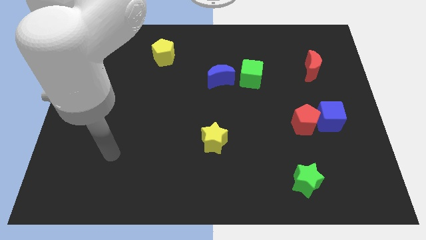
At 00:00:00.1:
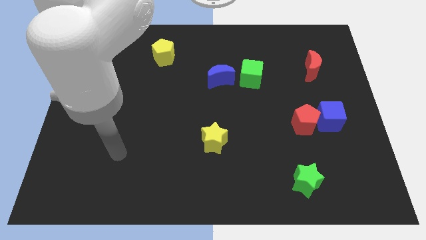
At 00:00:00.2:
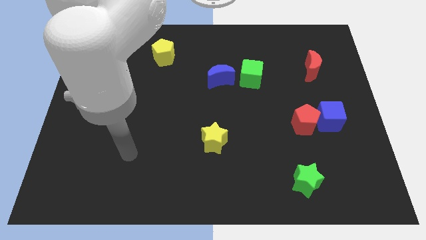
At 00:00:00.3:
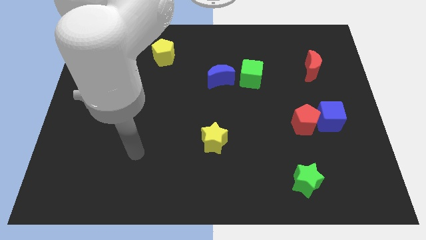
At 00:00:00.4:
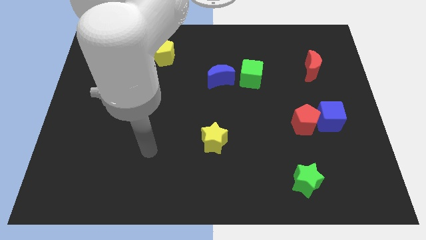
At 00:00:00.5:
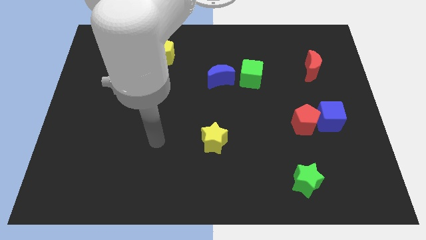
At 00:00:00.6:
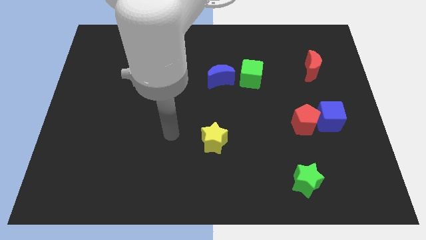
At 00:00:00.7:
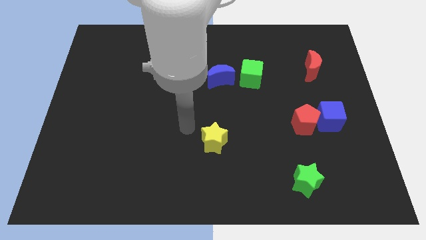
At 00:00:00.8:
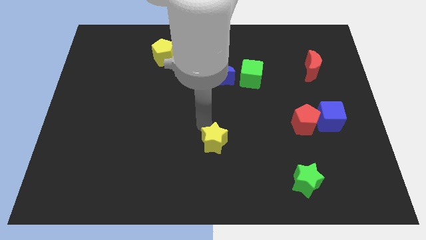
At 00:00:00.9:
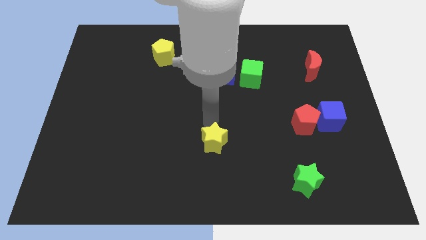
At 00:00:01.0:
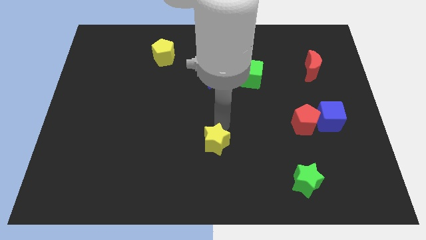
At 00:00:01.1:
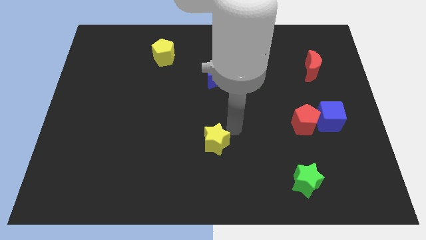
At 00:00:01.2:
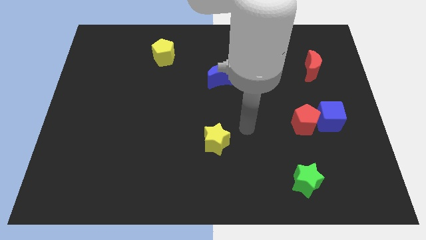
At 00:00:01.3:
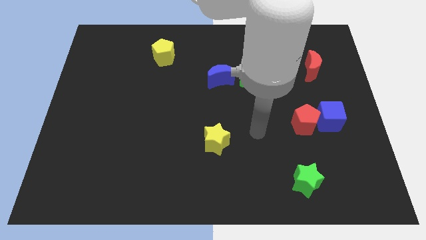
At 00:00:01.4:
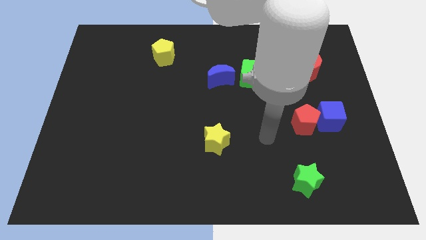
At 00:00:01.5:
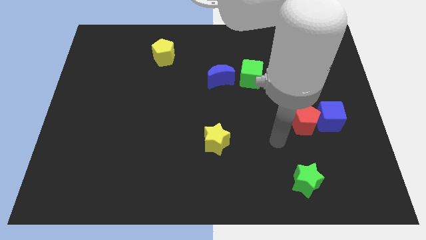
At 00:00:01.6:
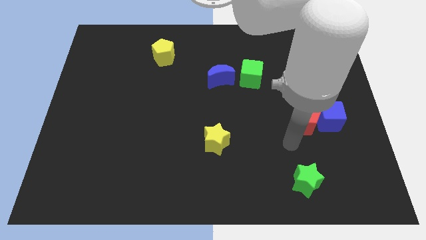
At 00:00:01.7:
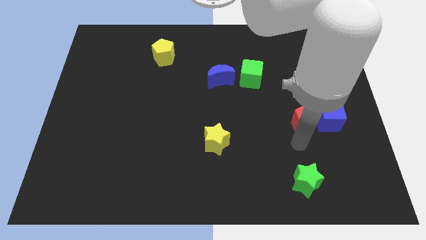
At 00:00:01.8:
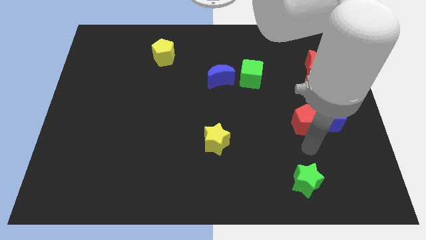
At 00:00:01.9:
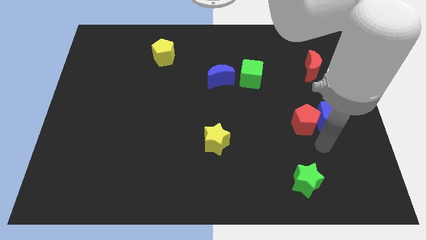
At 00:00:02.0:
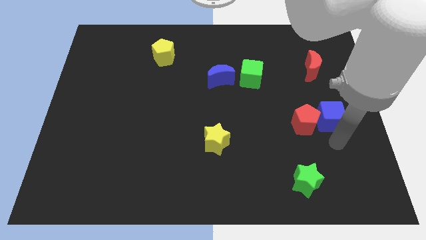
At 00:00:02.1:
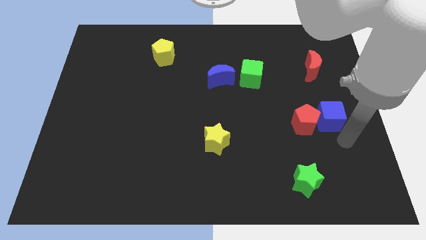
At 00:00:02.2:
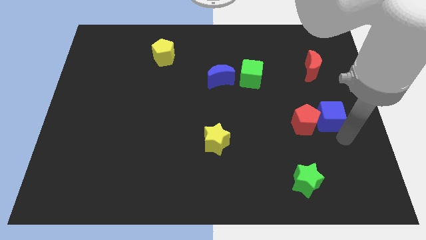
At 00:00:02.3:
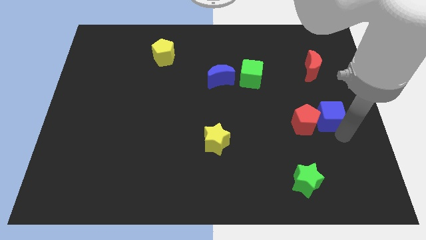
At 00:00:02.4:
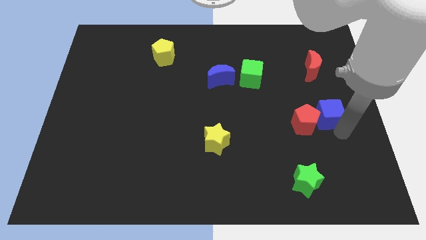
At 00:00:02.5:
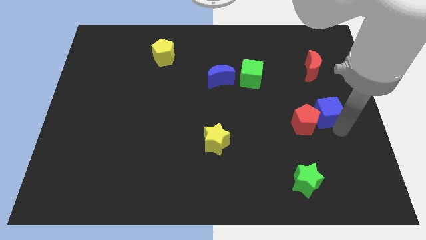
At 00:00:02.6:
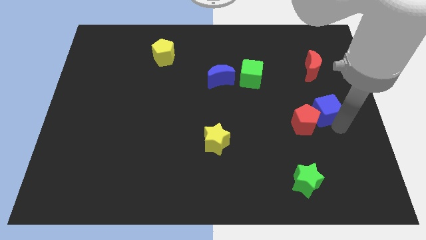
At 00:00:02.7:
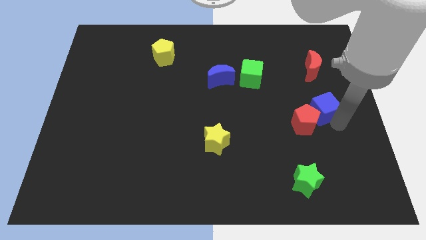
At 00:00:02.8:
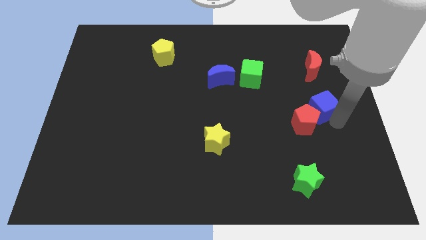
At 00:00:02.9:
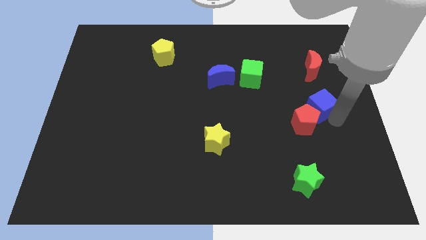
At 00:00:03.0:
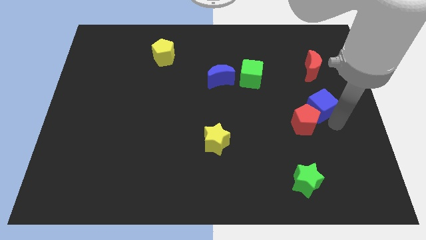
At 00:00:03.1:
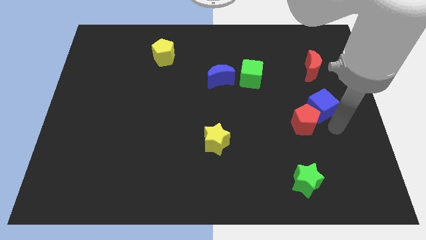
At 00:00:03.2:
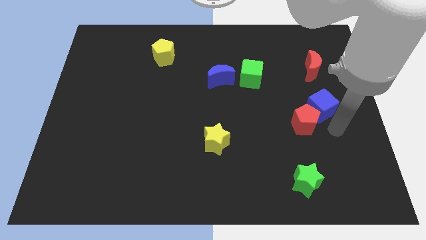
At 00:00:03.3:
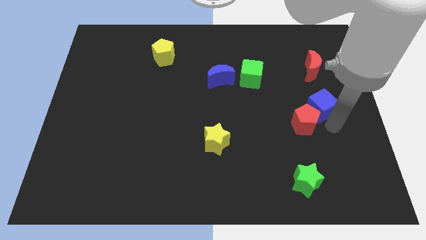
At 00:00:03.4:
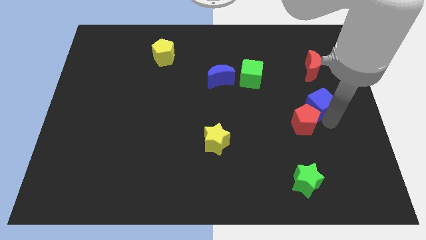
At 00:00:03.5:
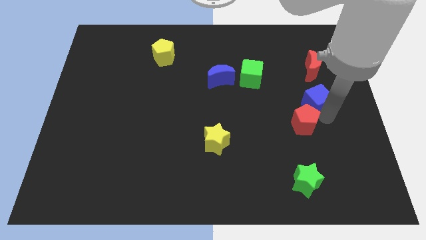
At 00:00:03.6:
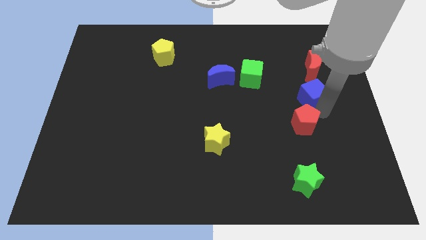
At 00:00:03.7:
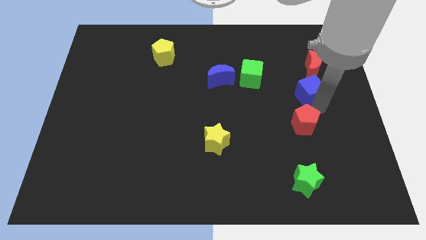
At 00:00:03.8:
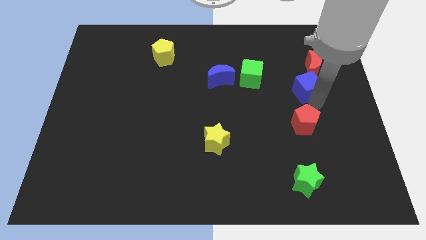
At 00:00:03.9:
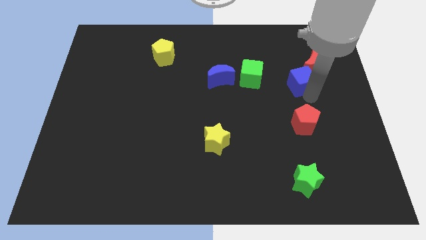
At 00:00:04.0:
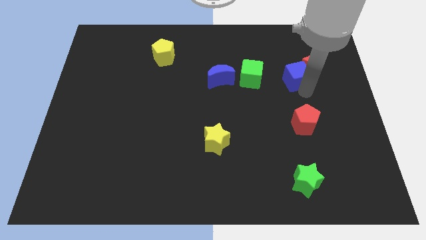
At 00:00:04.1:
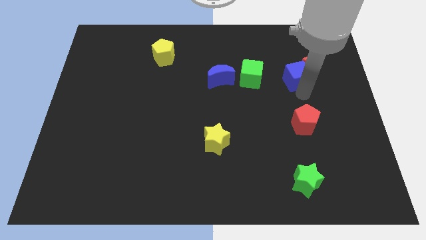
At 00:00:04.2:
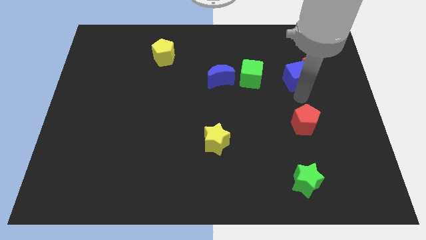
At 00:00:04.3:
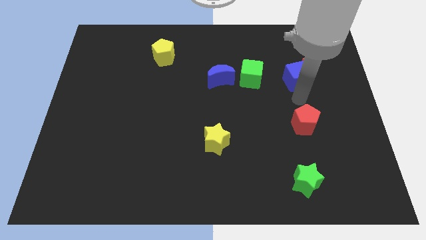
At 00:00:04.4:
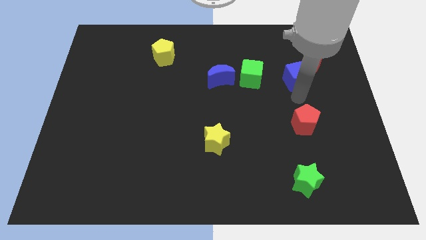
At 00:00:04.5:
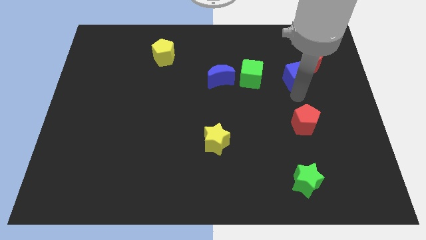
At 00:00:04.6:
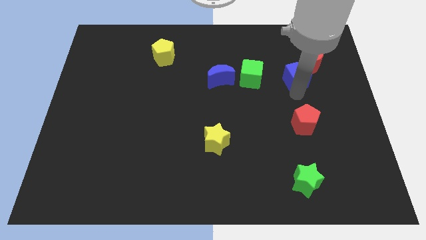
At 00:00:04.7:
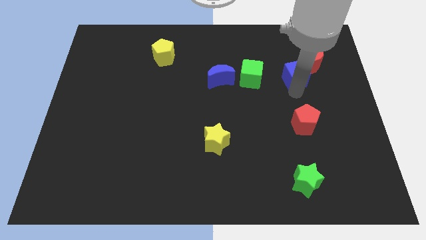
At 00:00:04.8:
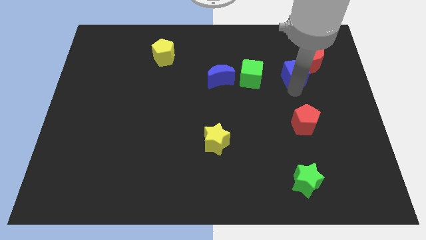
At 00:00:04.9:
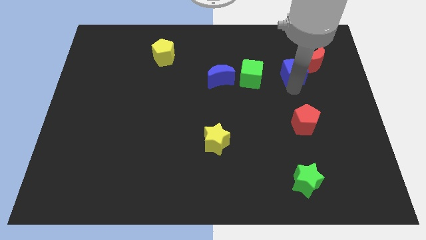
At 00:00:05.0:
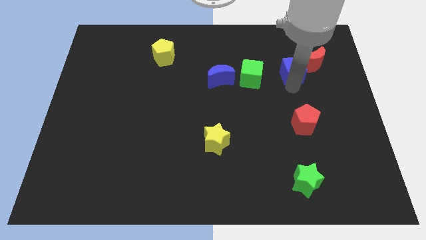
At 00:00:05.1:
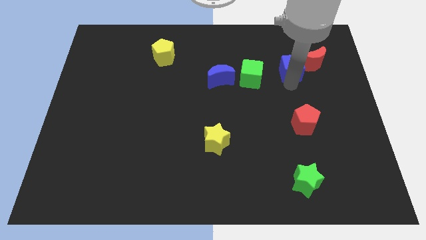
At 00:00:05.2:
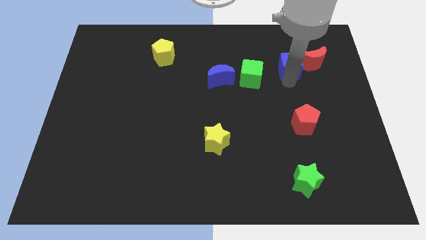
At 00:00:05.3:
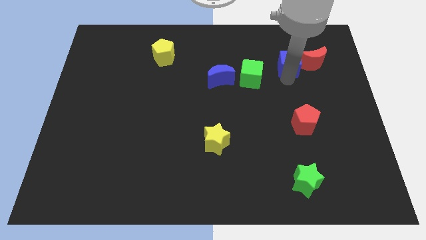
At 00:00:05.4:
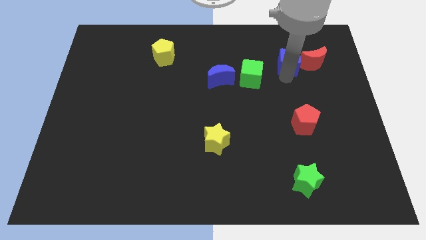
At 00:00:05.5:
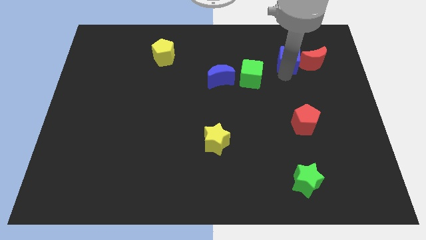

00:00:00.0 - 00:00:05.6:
slide the blue cube diagonally up and to the left of the red moon

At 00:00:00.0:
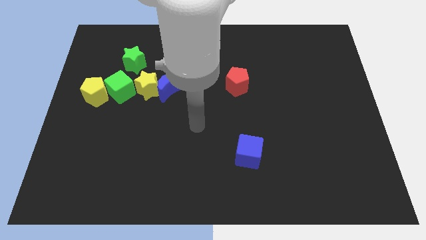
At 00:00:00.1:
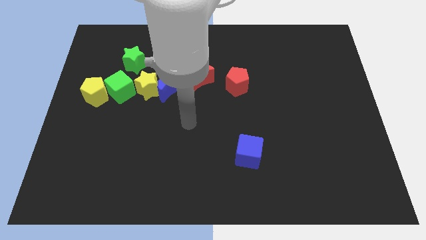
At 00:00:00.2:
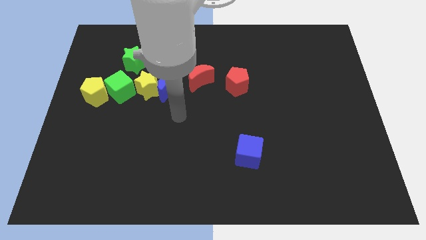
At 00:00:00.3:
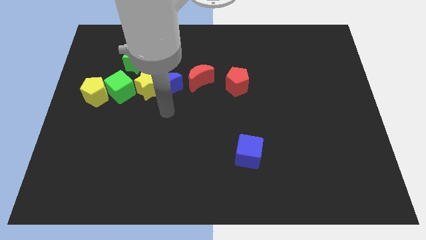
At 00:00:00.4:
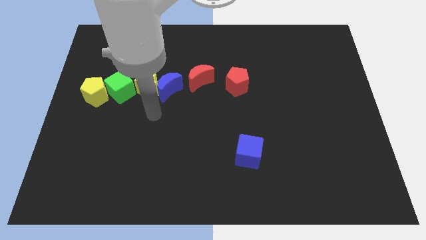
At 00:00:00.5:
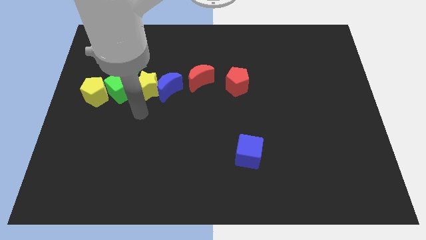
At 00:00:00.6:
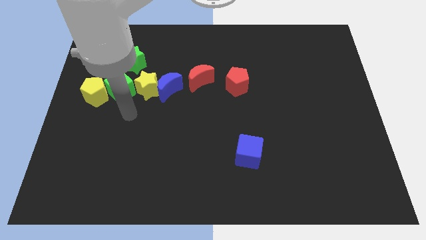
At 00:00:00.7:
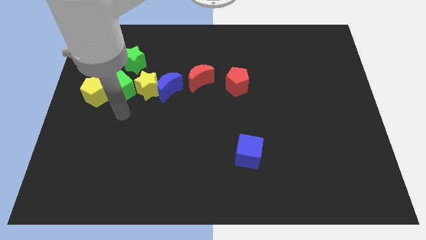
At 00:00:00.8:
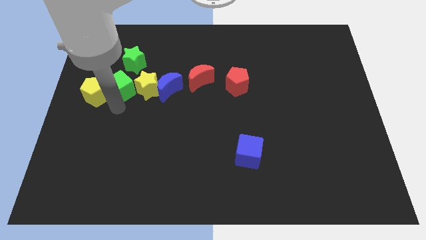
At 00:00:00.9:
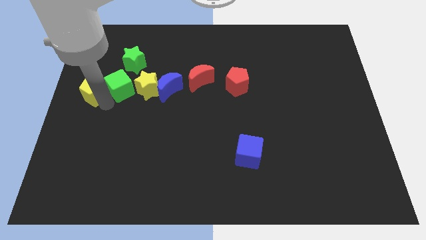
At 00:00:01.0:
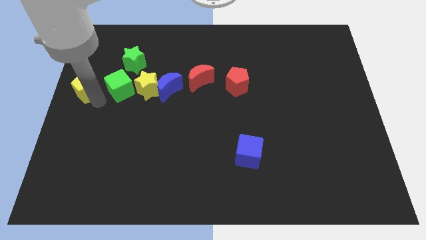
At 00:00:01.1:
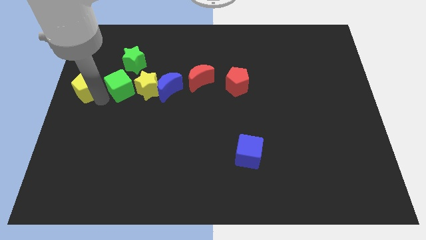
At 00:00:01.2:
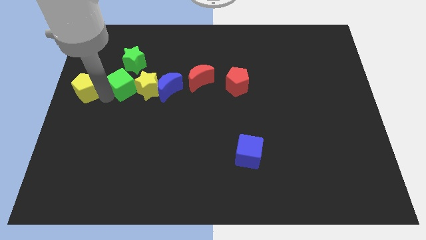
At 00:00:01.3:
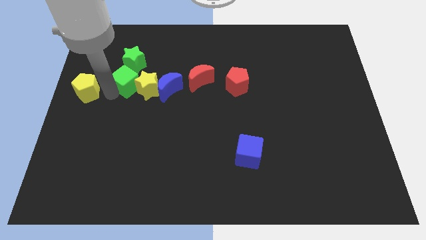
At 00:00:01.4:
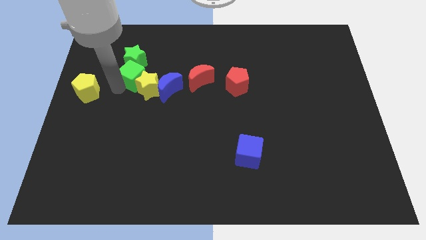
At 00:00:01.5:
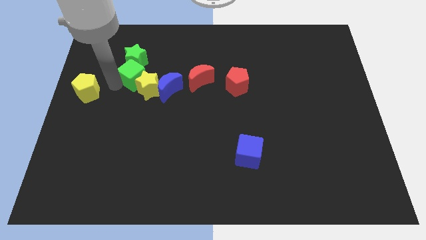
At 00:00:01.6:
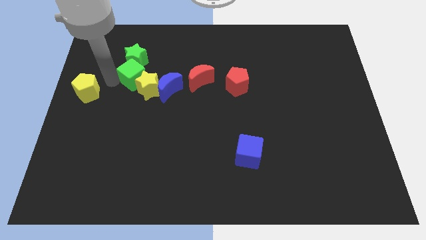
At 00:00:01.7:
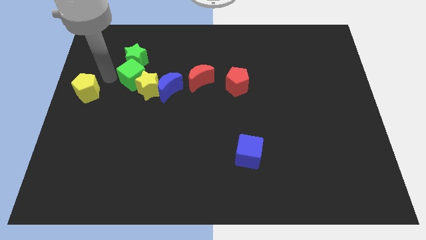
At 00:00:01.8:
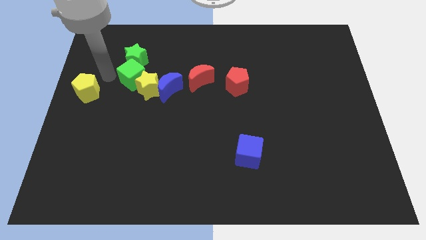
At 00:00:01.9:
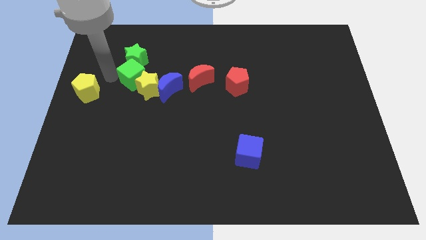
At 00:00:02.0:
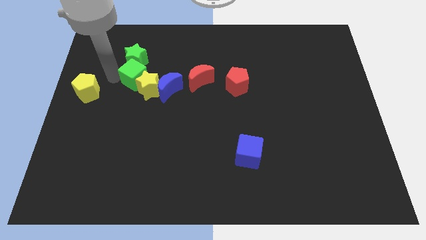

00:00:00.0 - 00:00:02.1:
move the green cube just left of the red moon
